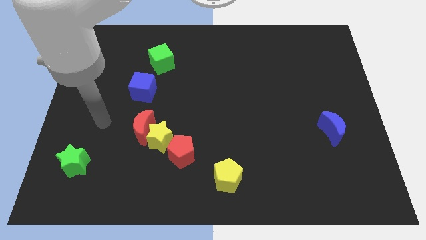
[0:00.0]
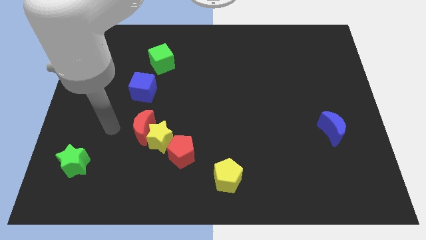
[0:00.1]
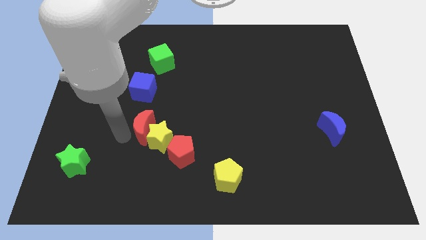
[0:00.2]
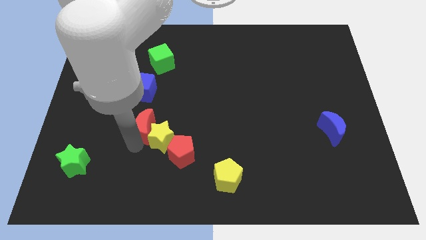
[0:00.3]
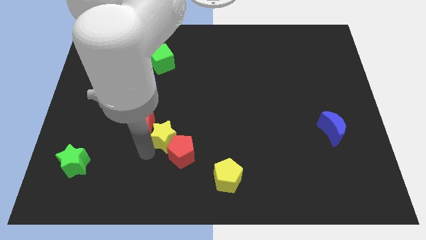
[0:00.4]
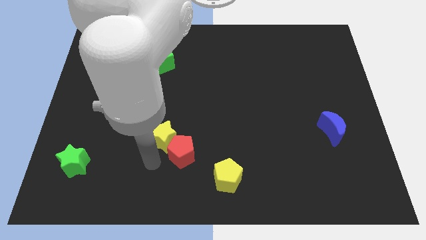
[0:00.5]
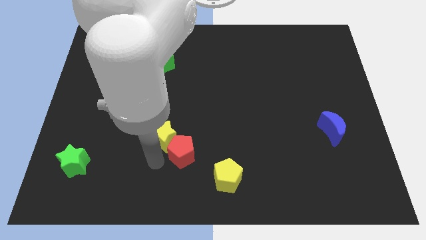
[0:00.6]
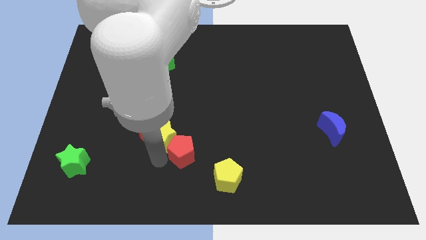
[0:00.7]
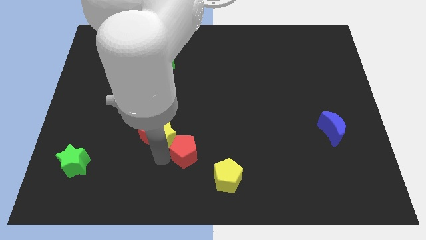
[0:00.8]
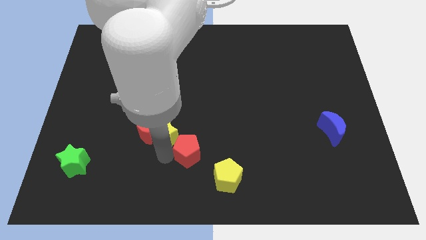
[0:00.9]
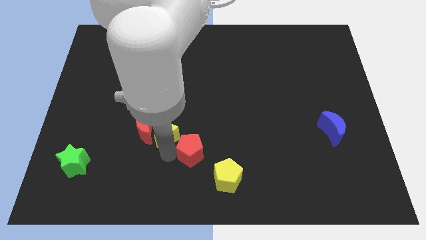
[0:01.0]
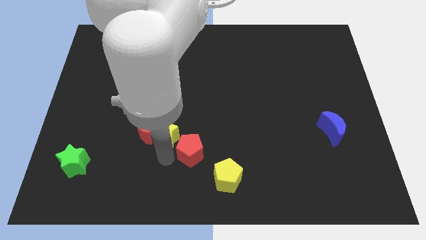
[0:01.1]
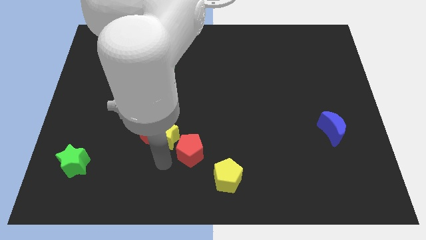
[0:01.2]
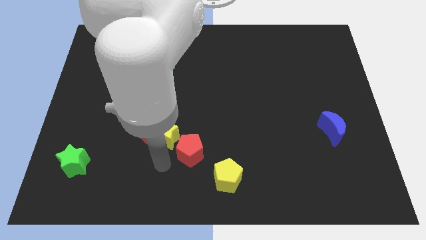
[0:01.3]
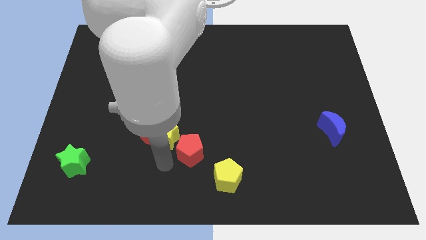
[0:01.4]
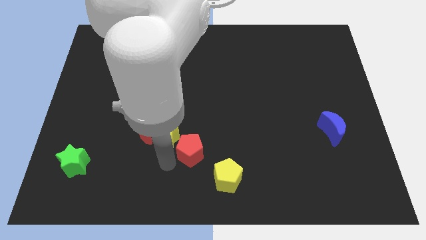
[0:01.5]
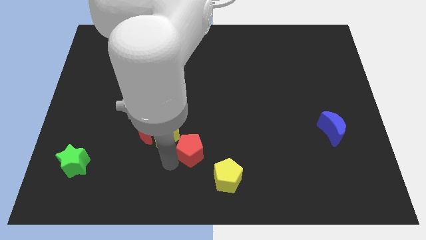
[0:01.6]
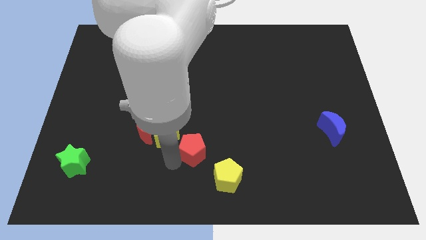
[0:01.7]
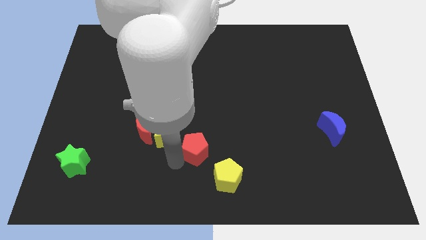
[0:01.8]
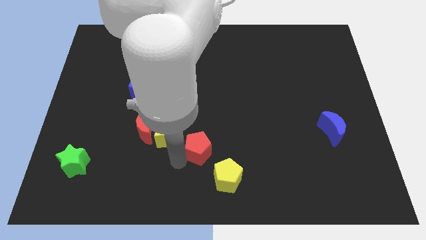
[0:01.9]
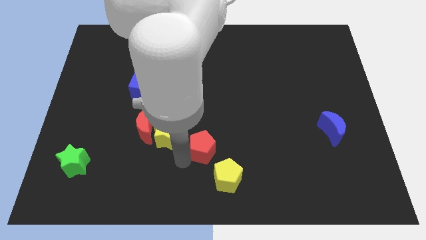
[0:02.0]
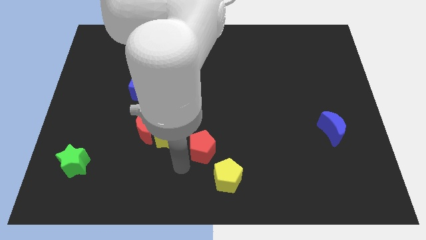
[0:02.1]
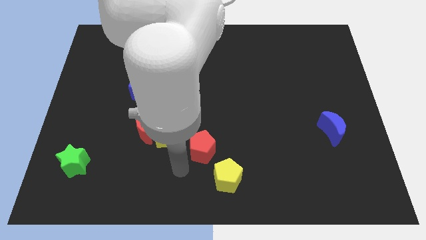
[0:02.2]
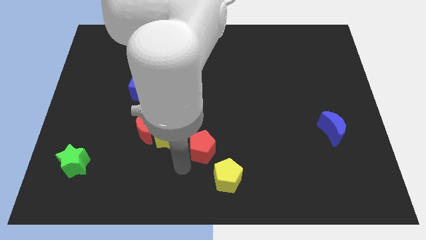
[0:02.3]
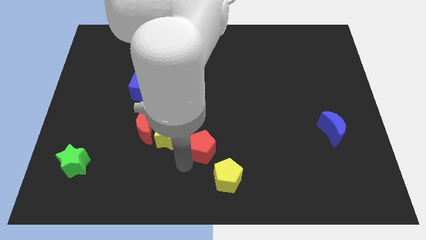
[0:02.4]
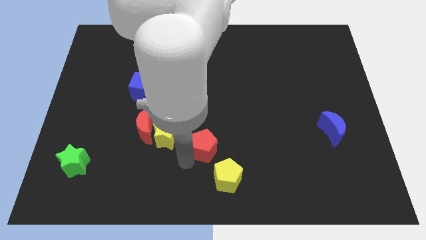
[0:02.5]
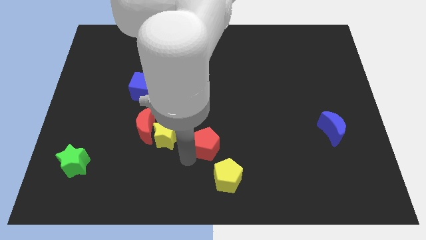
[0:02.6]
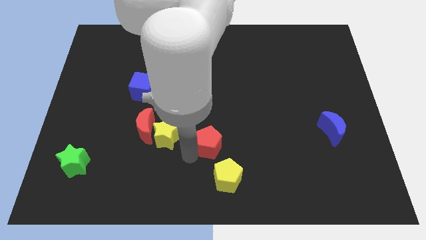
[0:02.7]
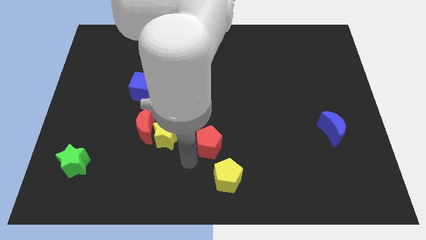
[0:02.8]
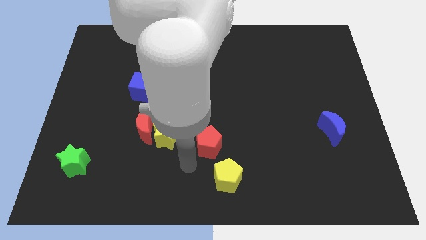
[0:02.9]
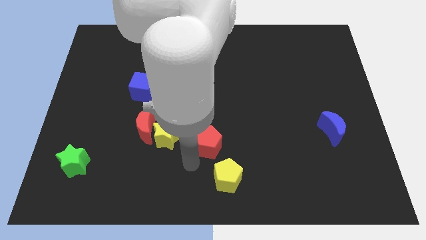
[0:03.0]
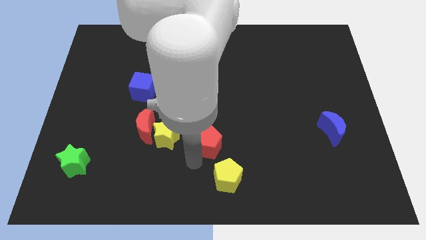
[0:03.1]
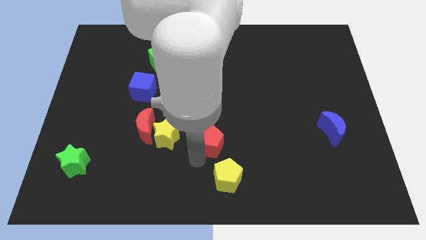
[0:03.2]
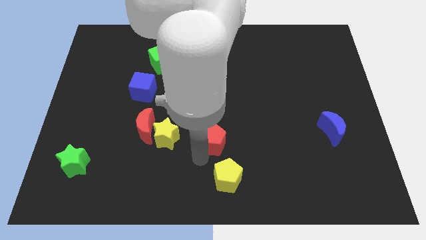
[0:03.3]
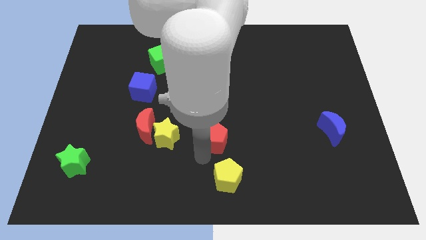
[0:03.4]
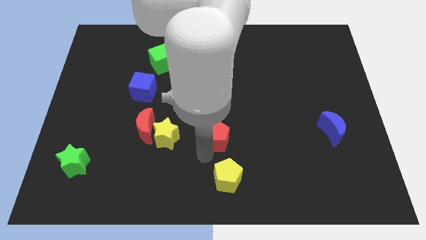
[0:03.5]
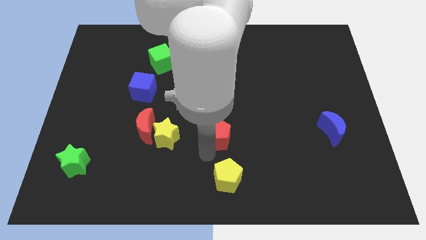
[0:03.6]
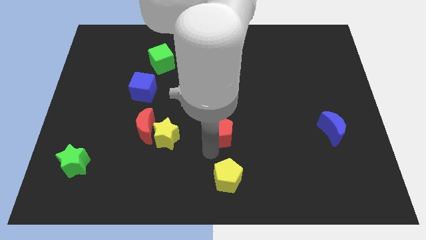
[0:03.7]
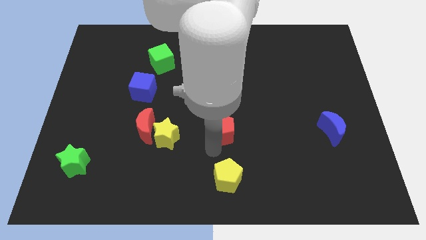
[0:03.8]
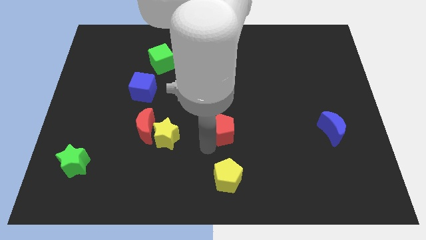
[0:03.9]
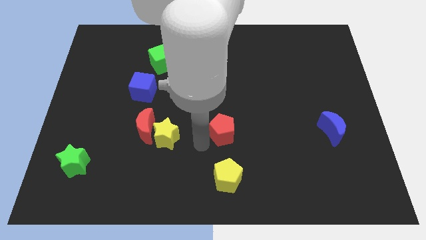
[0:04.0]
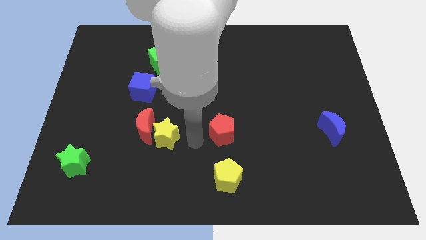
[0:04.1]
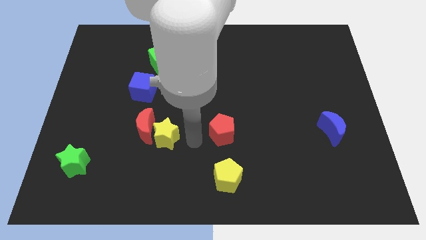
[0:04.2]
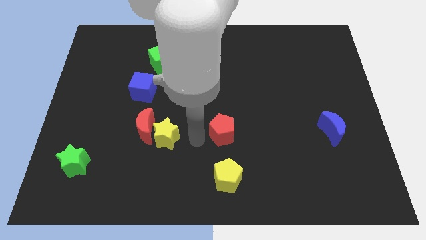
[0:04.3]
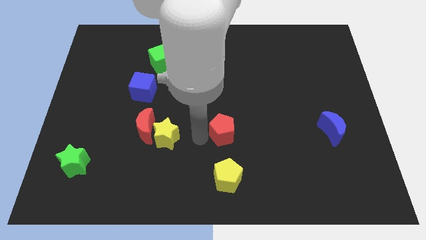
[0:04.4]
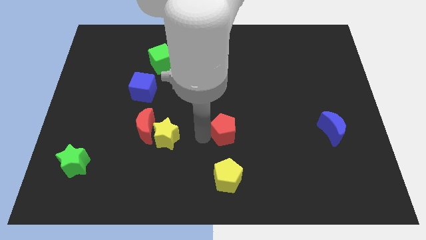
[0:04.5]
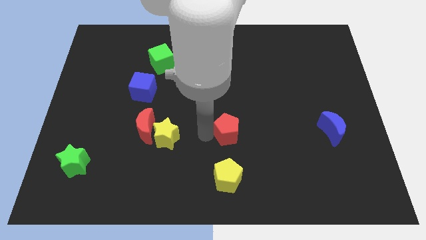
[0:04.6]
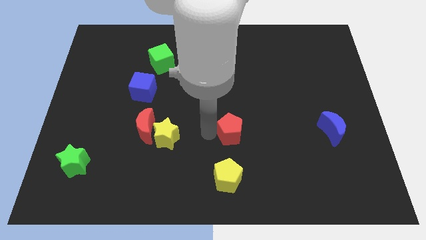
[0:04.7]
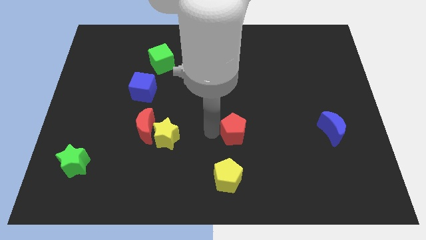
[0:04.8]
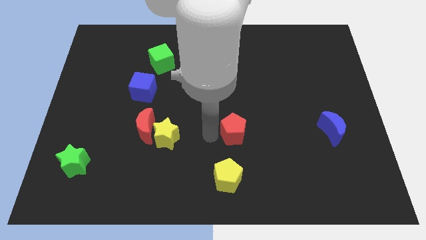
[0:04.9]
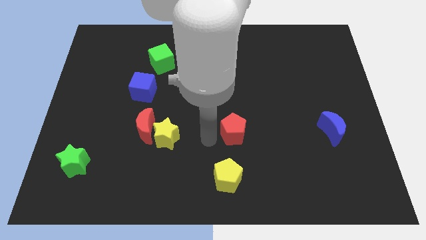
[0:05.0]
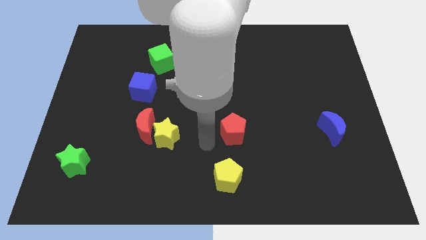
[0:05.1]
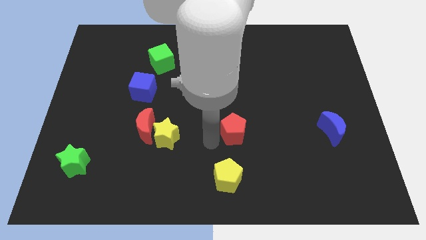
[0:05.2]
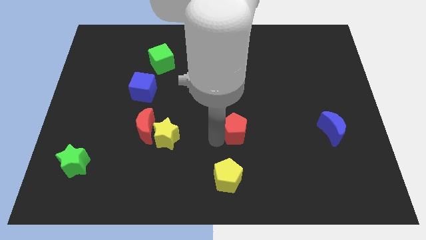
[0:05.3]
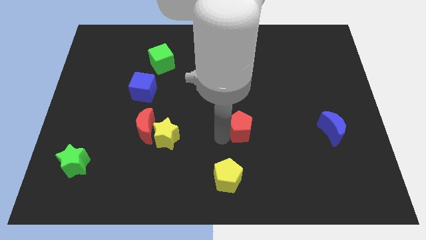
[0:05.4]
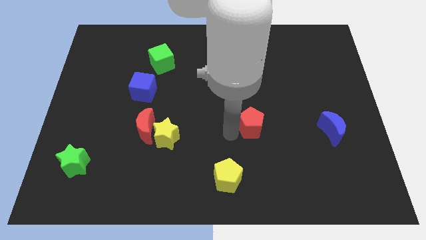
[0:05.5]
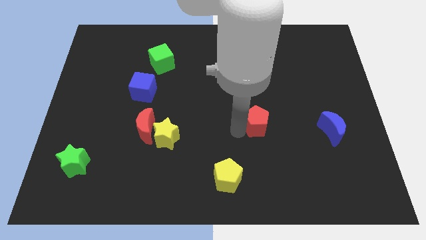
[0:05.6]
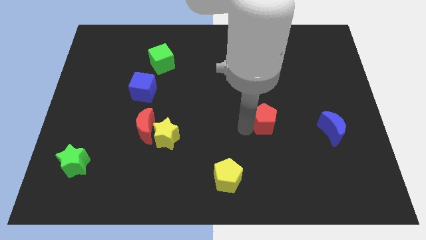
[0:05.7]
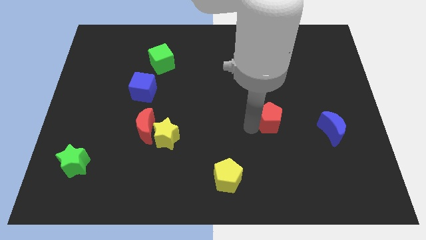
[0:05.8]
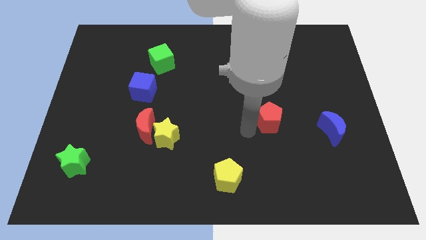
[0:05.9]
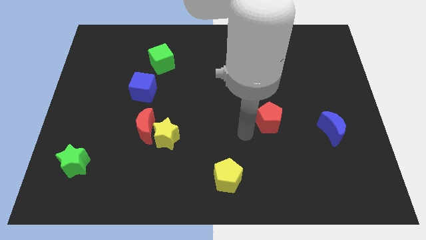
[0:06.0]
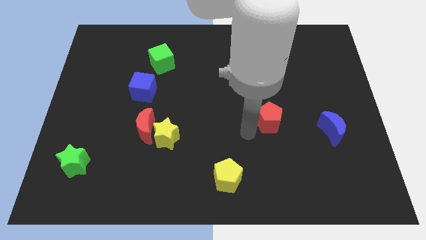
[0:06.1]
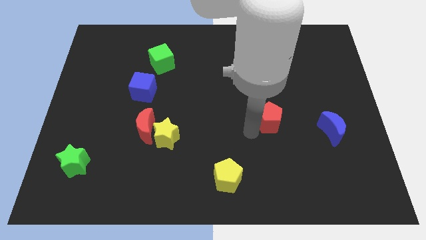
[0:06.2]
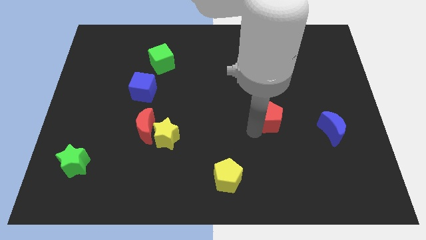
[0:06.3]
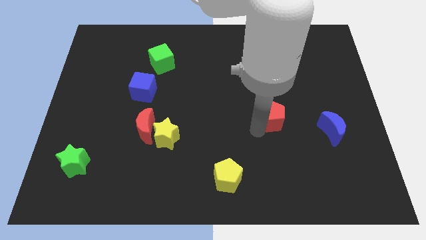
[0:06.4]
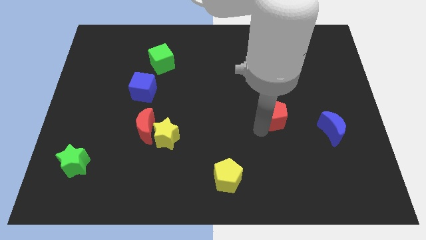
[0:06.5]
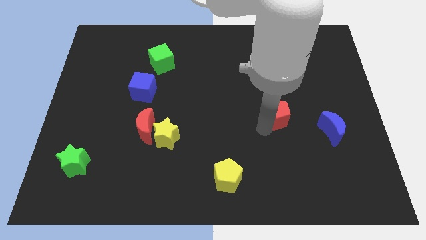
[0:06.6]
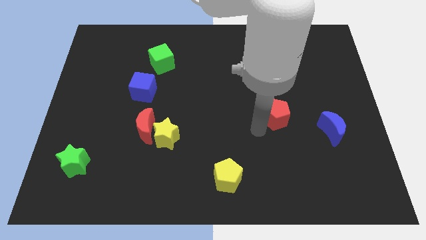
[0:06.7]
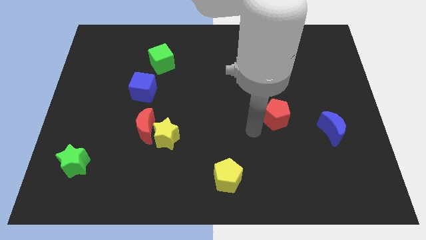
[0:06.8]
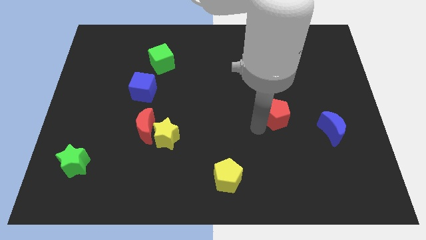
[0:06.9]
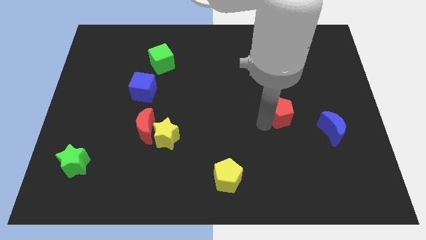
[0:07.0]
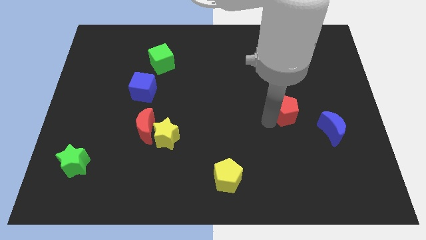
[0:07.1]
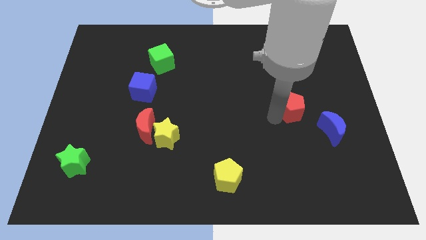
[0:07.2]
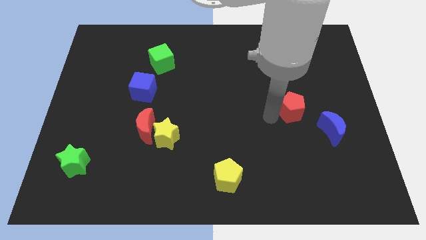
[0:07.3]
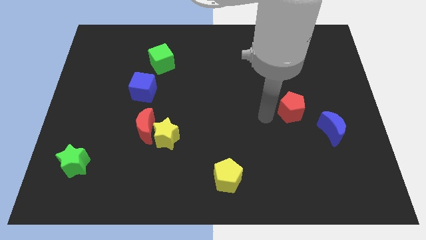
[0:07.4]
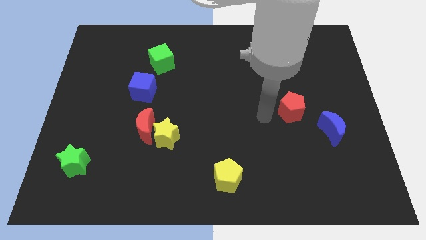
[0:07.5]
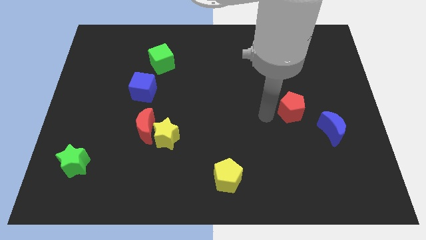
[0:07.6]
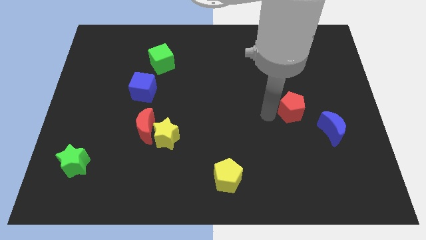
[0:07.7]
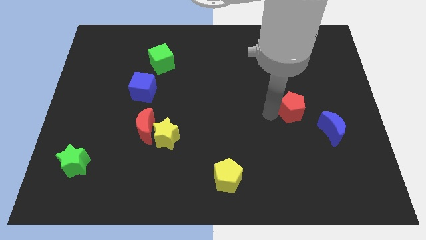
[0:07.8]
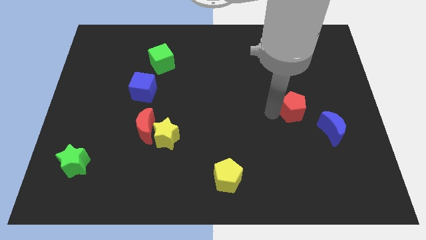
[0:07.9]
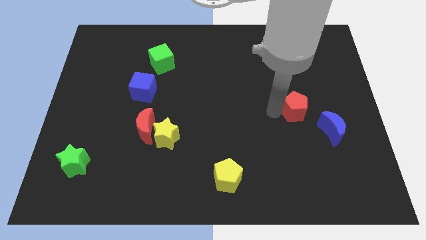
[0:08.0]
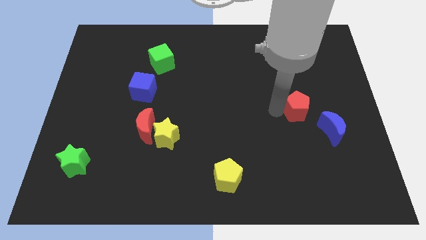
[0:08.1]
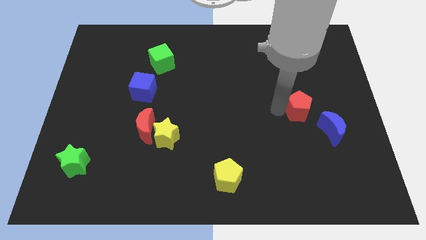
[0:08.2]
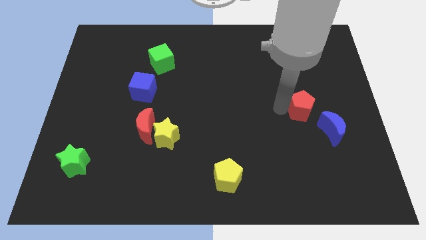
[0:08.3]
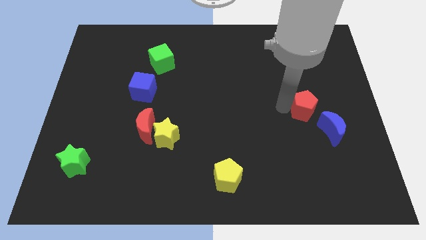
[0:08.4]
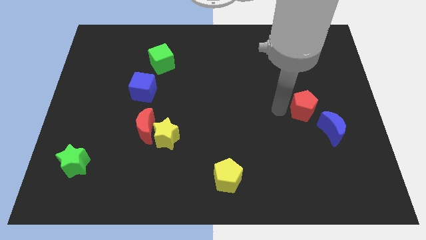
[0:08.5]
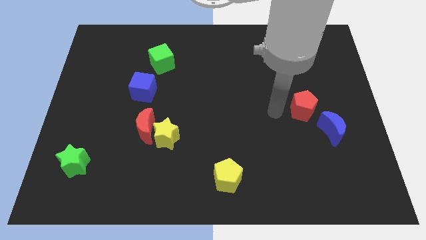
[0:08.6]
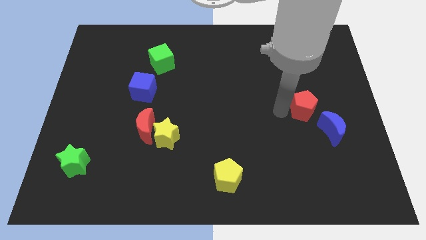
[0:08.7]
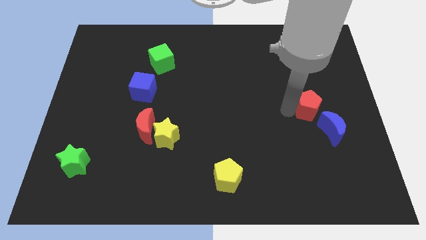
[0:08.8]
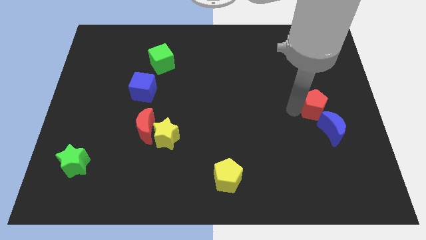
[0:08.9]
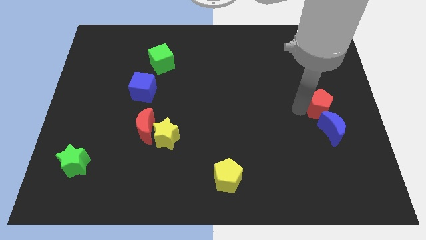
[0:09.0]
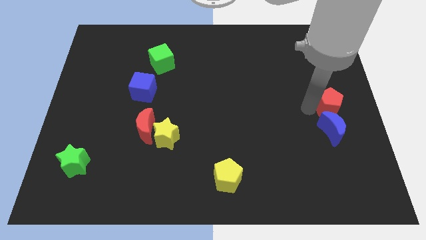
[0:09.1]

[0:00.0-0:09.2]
slide the red pentagon to the center right
